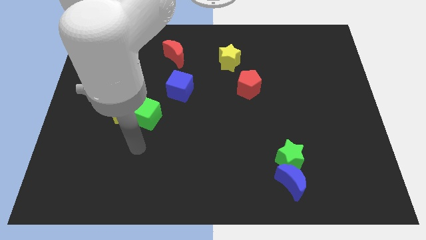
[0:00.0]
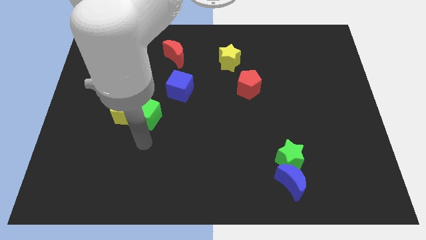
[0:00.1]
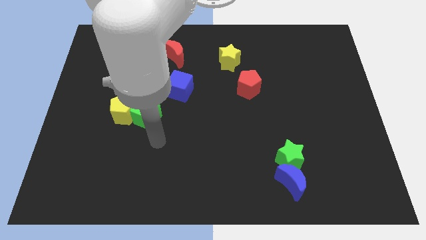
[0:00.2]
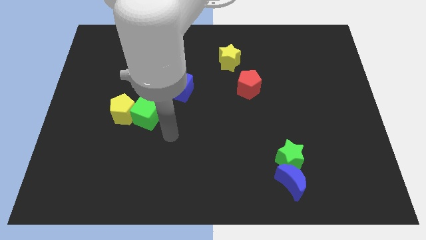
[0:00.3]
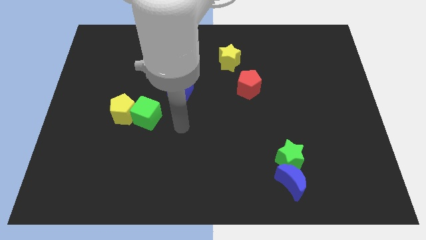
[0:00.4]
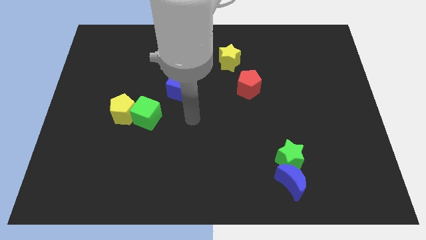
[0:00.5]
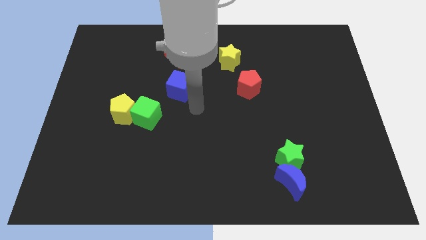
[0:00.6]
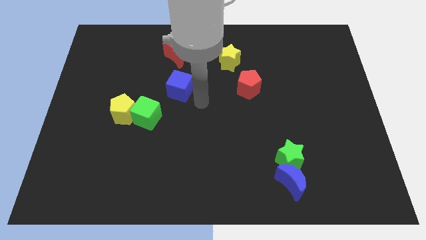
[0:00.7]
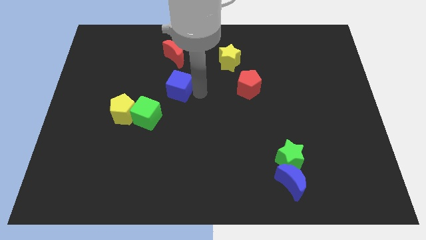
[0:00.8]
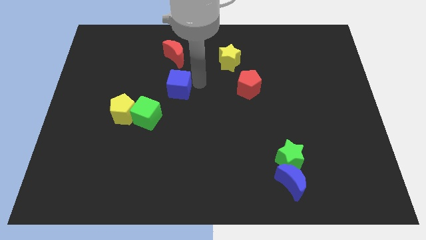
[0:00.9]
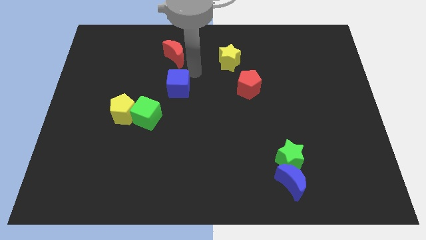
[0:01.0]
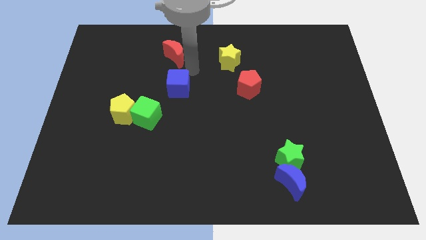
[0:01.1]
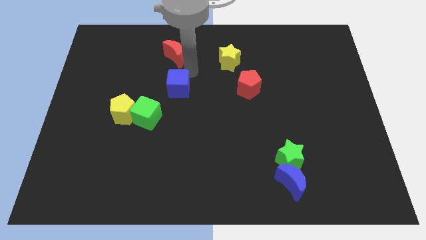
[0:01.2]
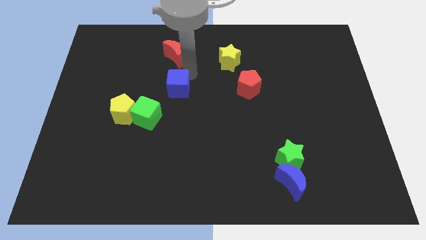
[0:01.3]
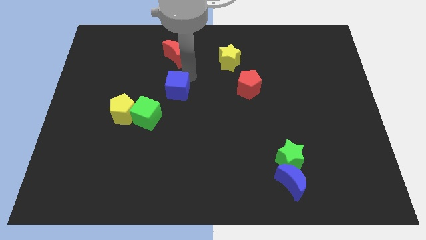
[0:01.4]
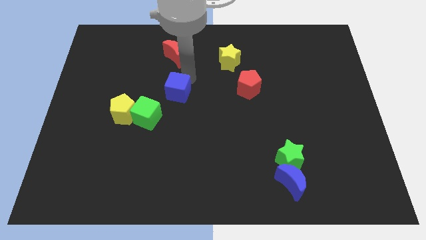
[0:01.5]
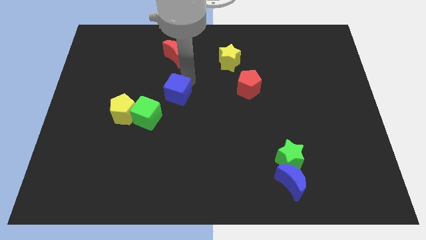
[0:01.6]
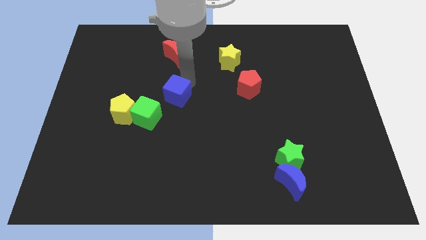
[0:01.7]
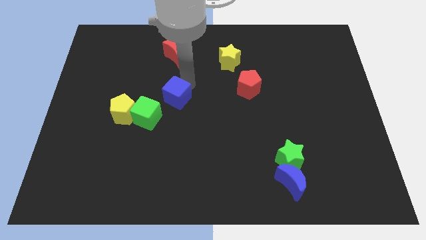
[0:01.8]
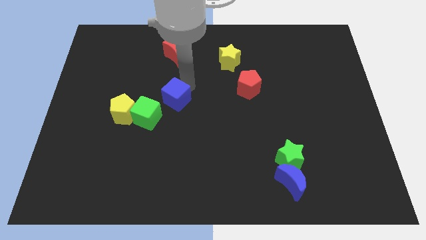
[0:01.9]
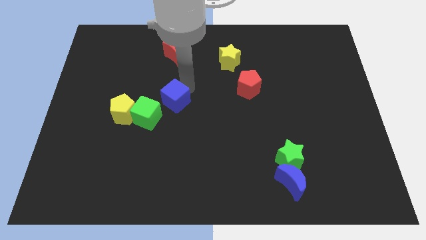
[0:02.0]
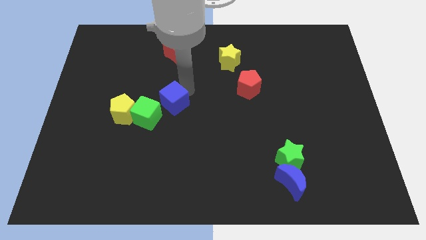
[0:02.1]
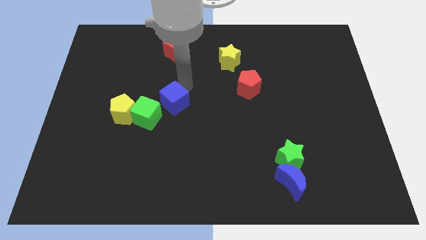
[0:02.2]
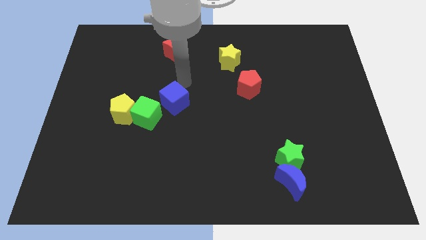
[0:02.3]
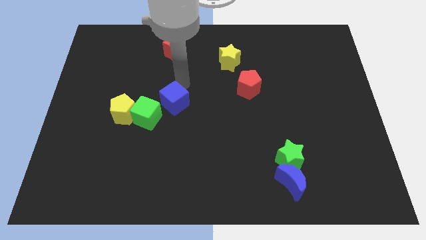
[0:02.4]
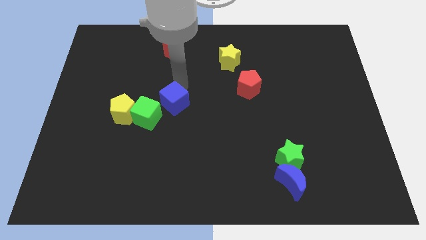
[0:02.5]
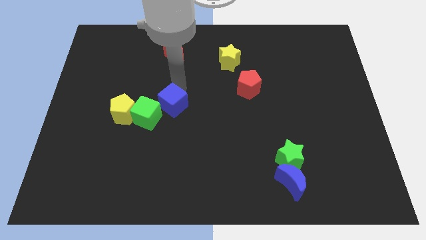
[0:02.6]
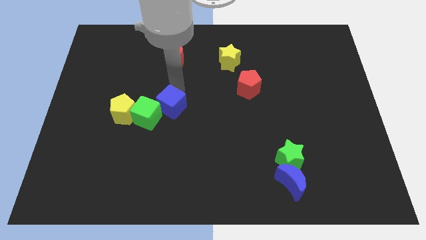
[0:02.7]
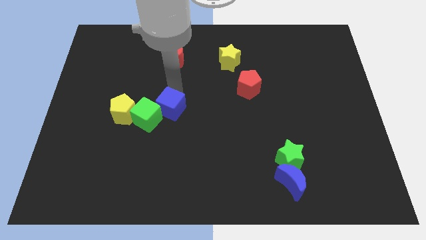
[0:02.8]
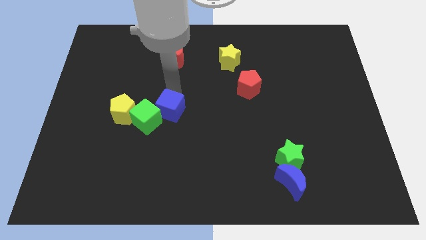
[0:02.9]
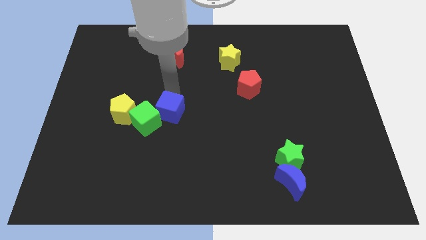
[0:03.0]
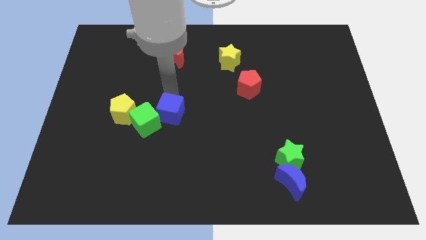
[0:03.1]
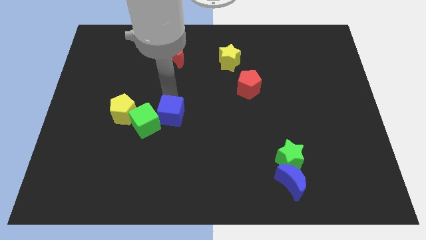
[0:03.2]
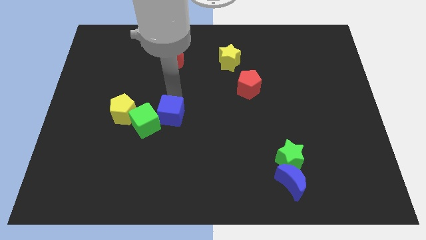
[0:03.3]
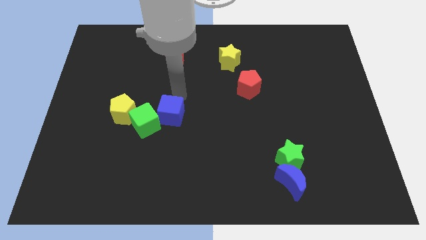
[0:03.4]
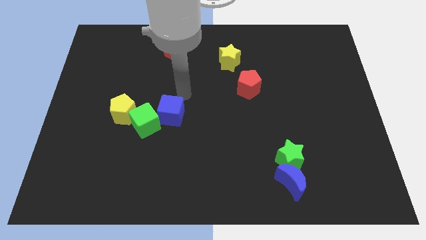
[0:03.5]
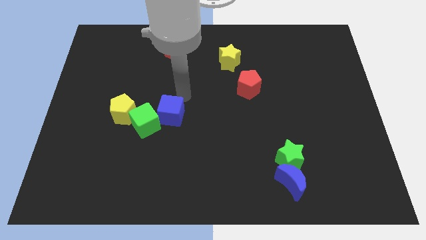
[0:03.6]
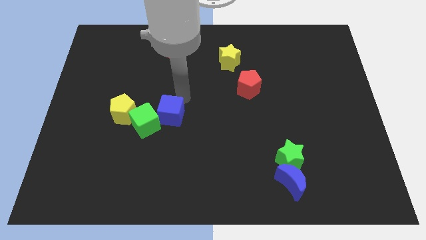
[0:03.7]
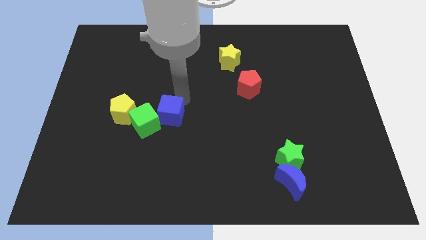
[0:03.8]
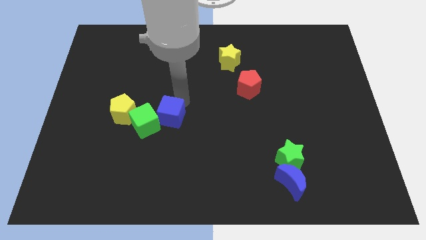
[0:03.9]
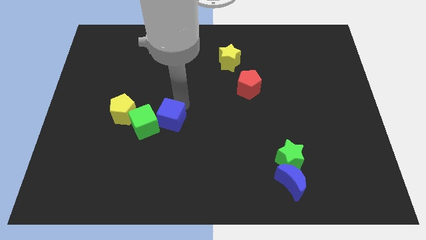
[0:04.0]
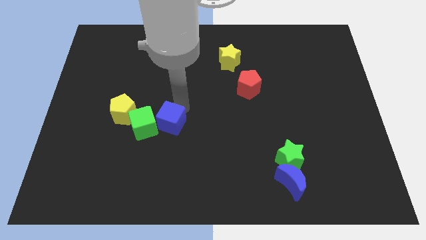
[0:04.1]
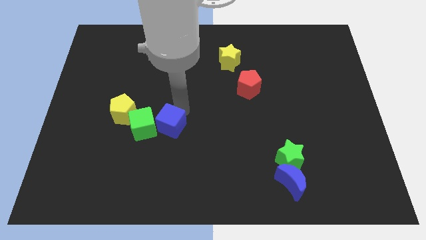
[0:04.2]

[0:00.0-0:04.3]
move the blue cube somewhat downwards and left diagonally

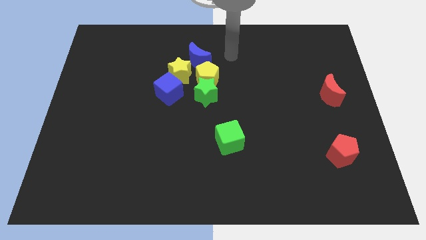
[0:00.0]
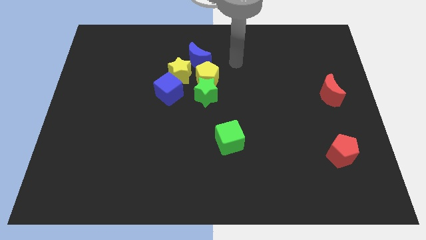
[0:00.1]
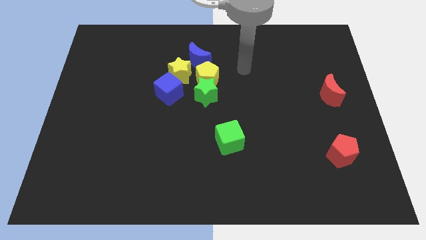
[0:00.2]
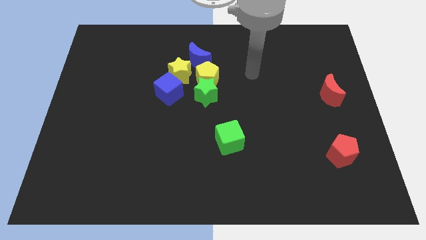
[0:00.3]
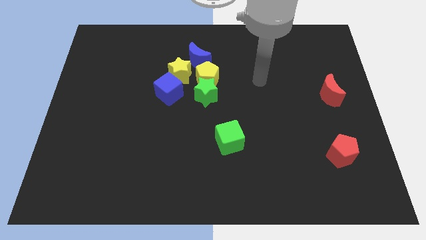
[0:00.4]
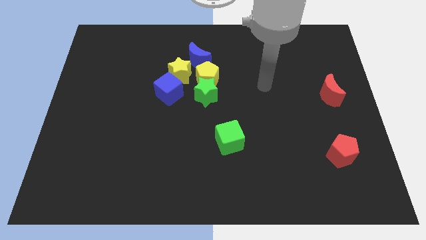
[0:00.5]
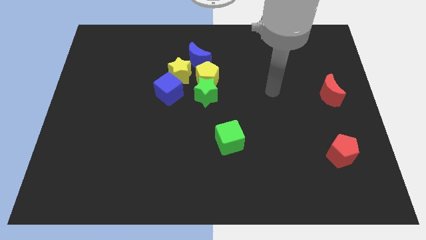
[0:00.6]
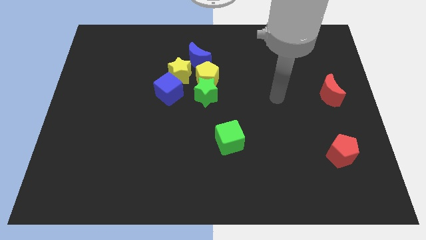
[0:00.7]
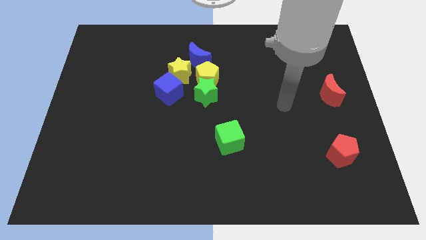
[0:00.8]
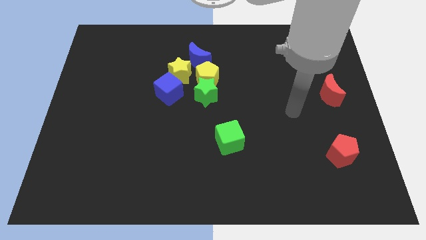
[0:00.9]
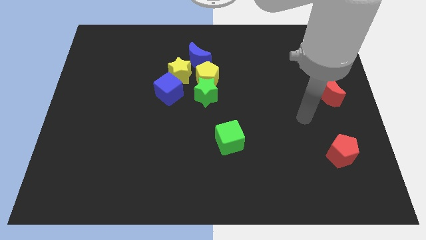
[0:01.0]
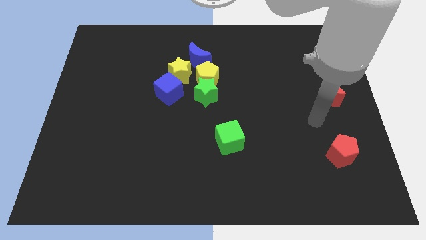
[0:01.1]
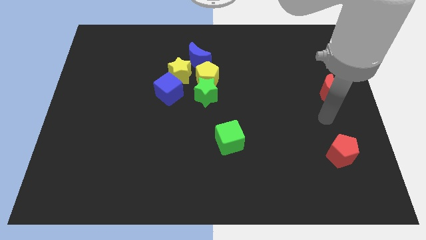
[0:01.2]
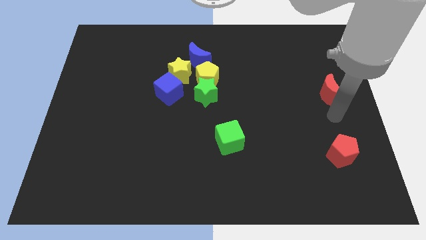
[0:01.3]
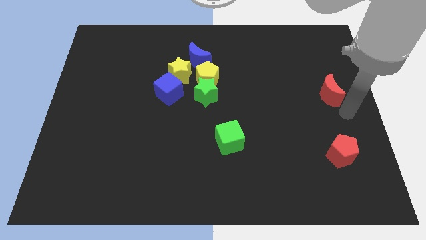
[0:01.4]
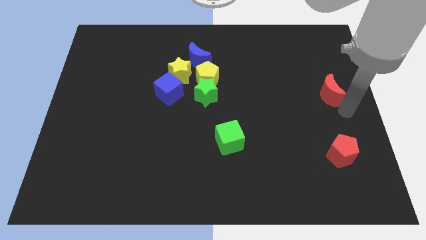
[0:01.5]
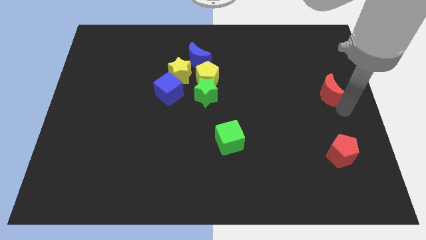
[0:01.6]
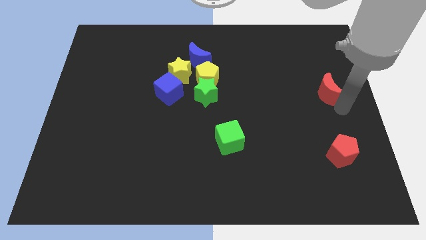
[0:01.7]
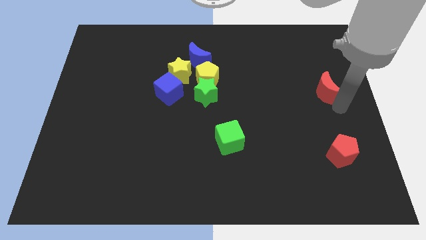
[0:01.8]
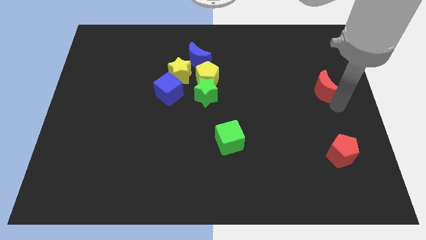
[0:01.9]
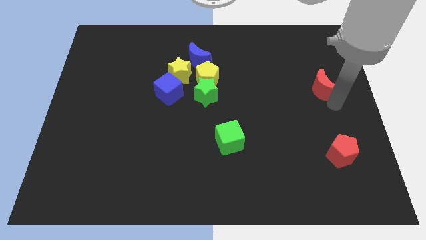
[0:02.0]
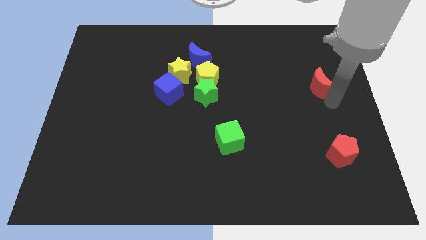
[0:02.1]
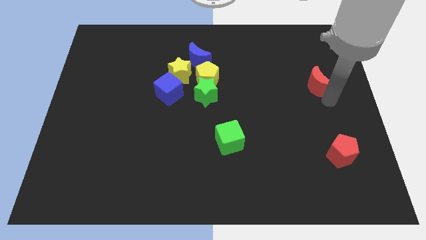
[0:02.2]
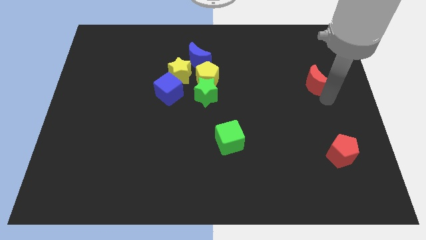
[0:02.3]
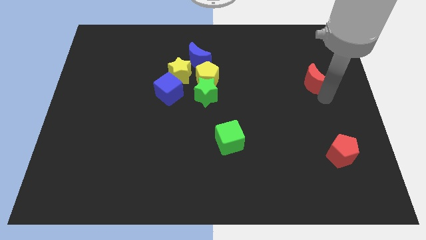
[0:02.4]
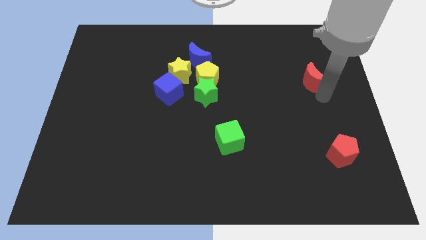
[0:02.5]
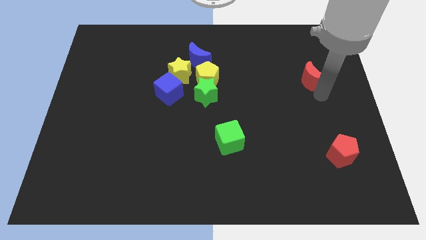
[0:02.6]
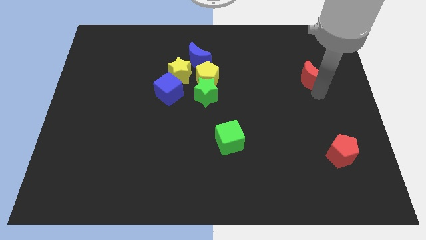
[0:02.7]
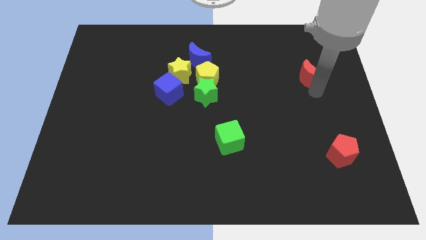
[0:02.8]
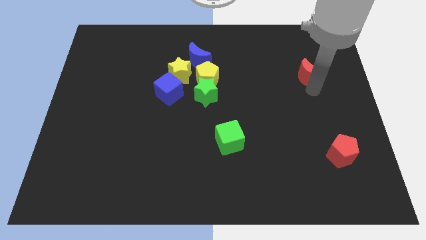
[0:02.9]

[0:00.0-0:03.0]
move the red moon slightly diagonally up and left

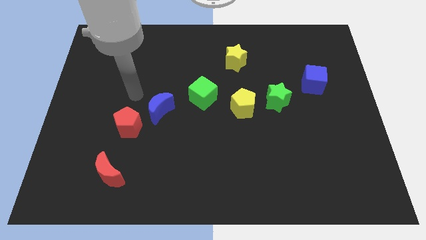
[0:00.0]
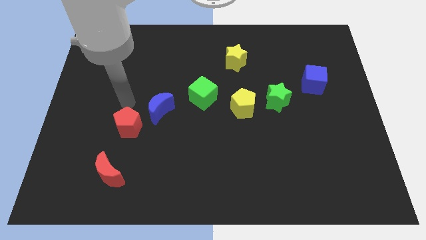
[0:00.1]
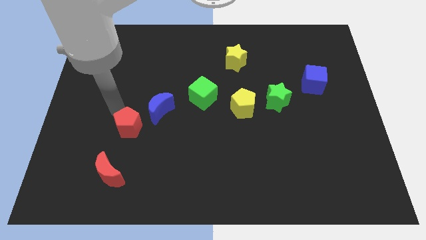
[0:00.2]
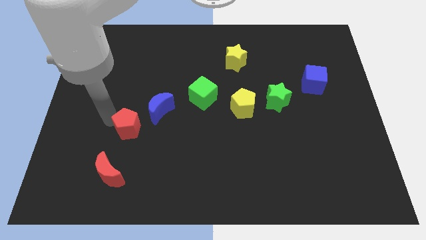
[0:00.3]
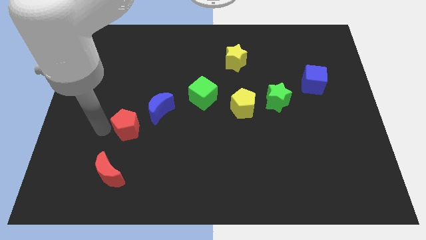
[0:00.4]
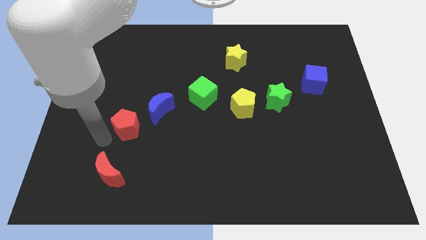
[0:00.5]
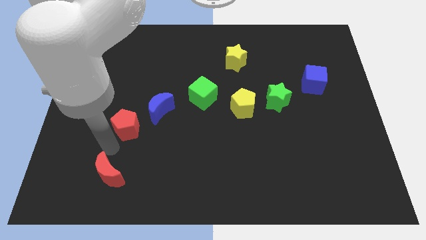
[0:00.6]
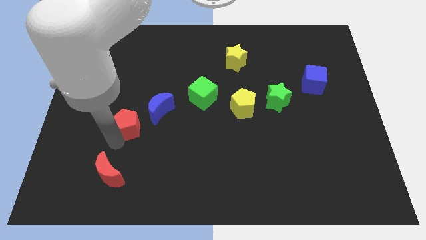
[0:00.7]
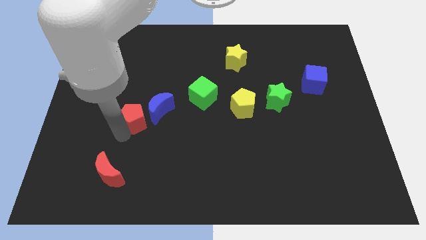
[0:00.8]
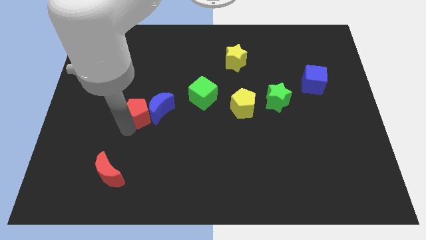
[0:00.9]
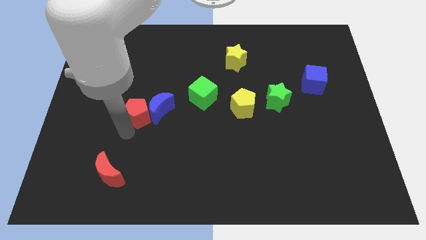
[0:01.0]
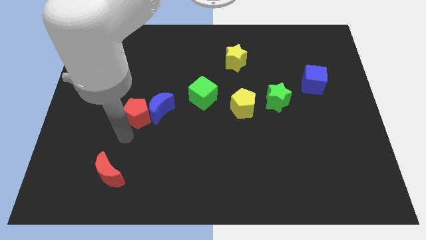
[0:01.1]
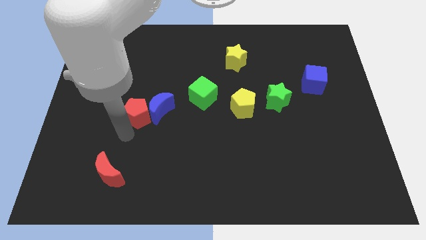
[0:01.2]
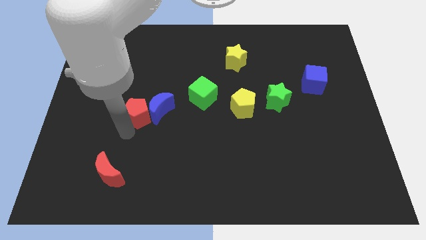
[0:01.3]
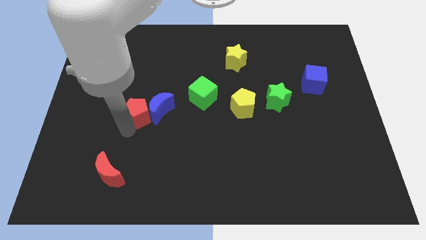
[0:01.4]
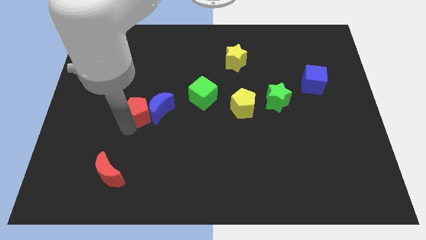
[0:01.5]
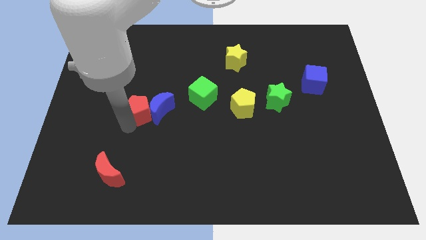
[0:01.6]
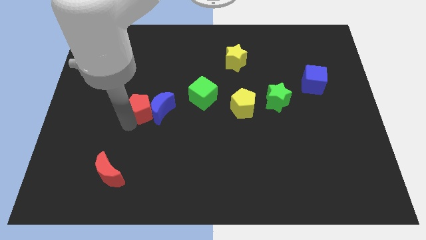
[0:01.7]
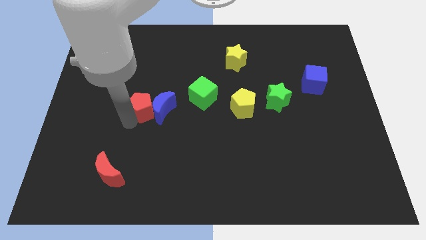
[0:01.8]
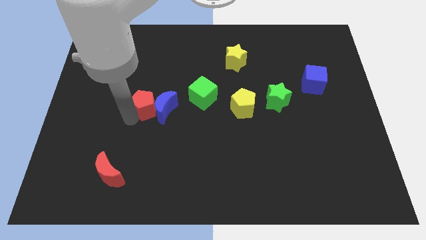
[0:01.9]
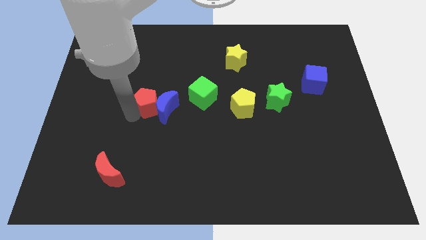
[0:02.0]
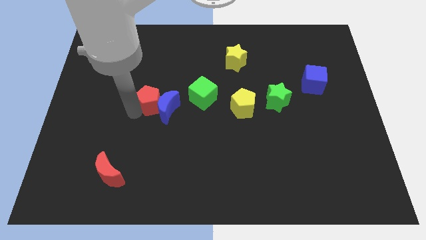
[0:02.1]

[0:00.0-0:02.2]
slide the red pentagon upwards and then right slightly
